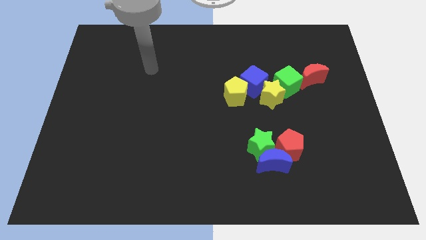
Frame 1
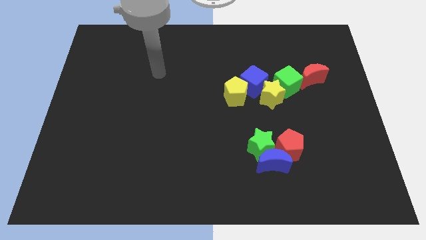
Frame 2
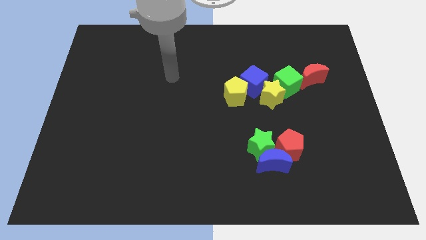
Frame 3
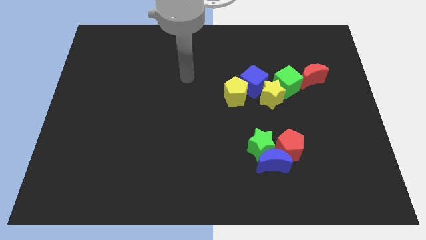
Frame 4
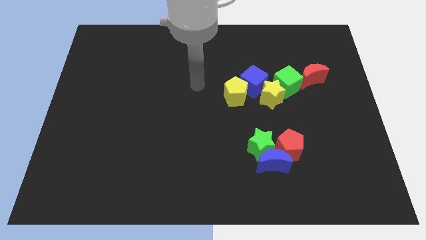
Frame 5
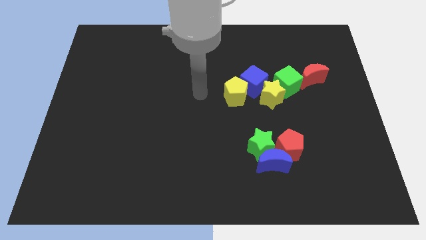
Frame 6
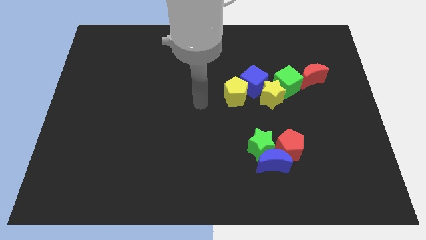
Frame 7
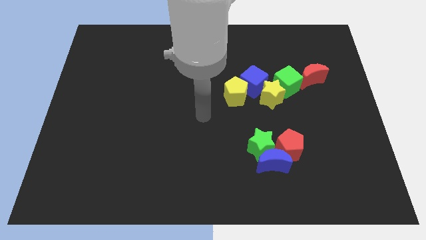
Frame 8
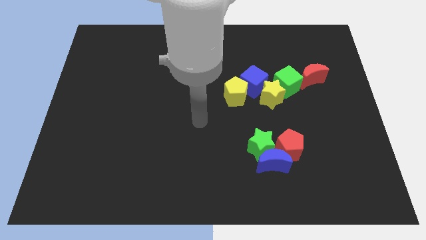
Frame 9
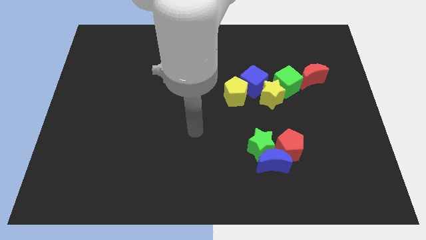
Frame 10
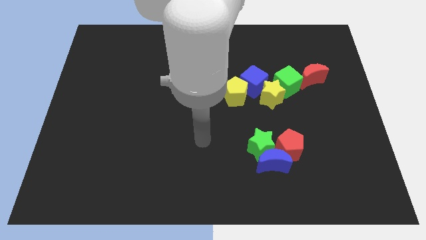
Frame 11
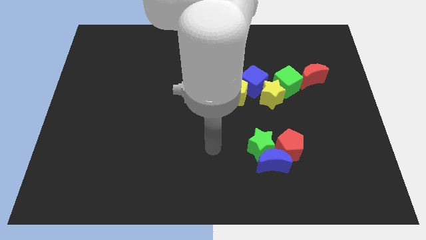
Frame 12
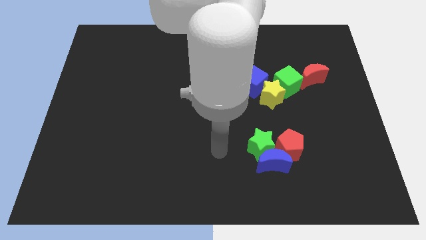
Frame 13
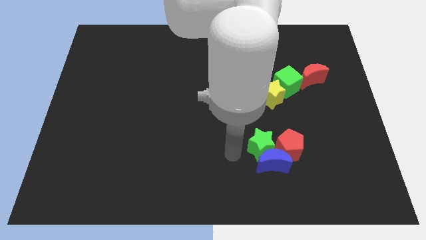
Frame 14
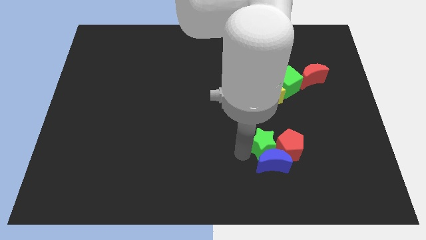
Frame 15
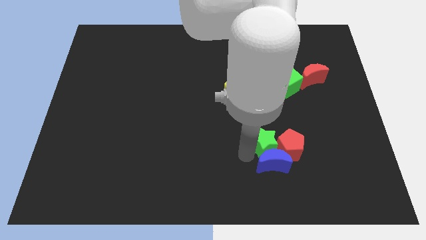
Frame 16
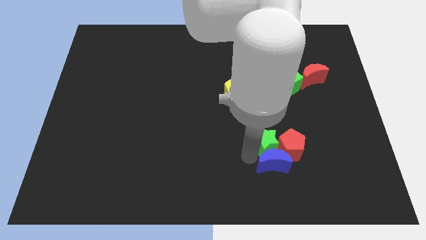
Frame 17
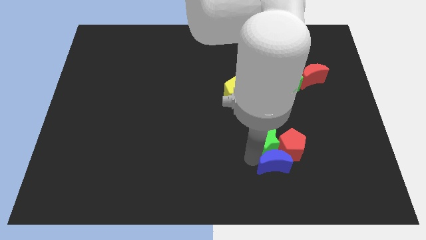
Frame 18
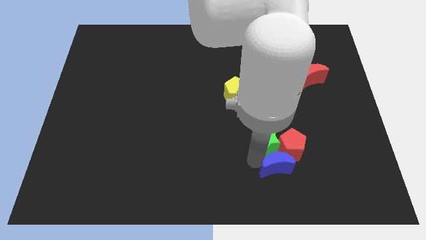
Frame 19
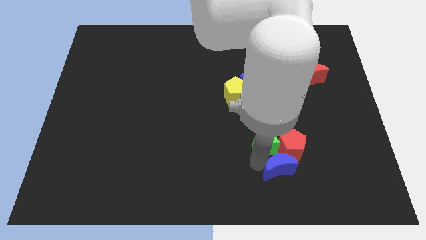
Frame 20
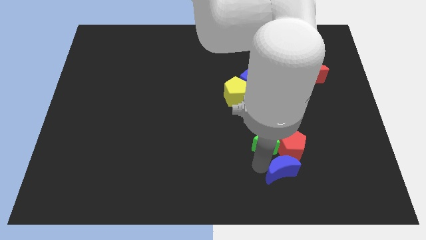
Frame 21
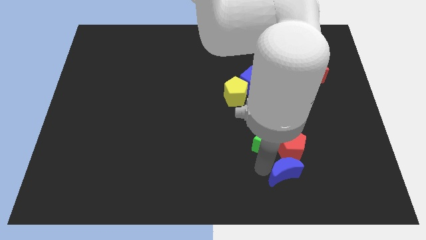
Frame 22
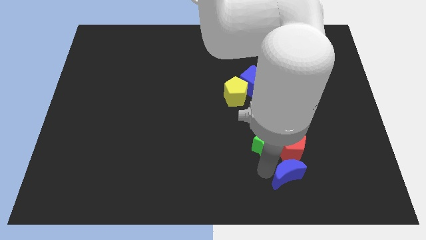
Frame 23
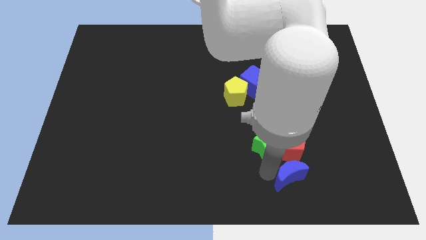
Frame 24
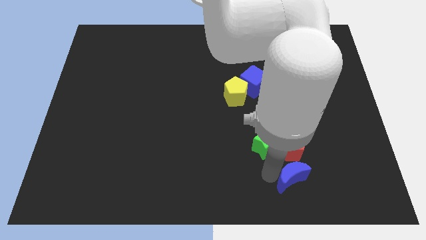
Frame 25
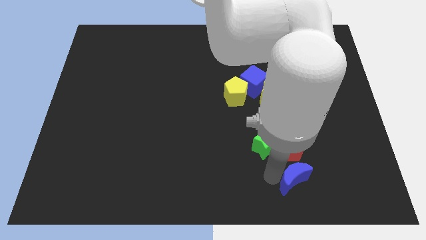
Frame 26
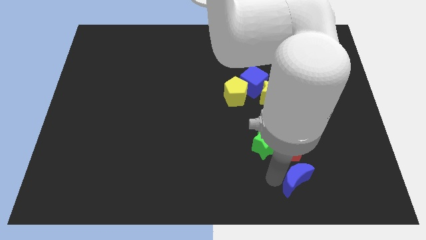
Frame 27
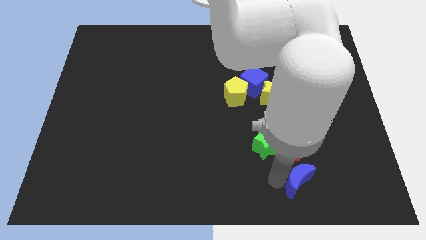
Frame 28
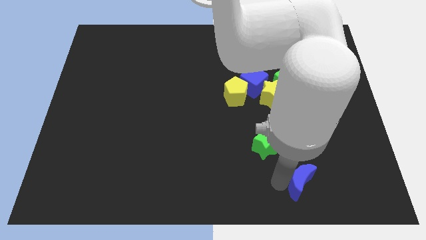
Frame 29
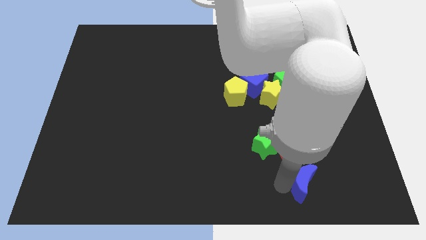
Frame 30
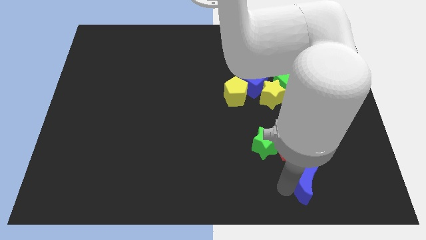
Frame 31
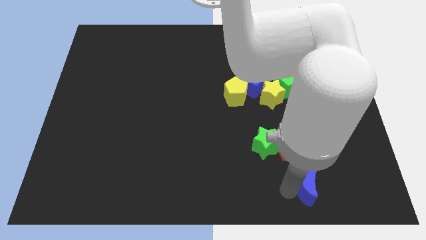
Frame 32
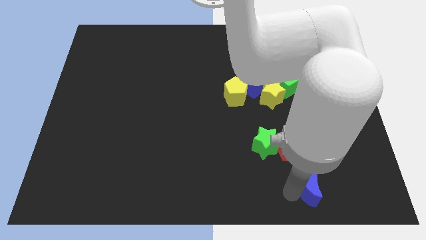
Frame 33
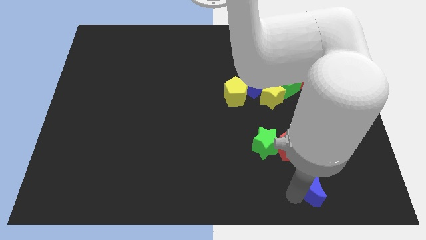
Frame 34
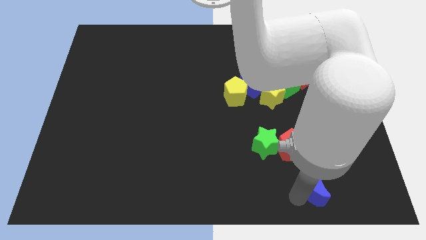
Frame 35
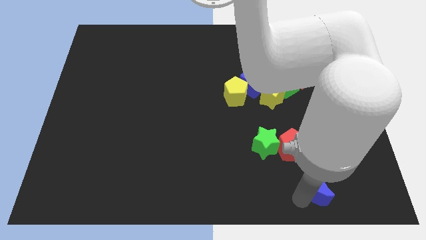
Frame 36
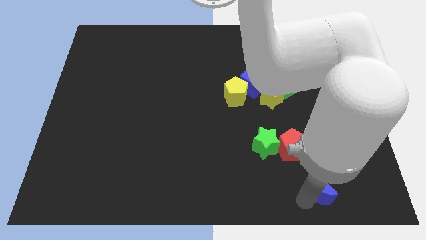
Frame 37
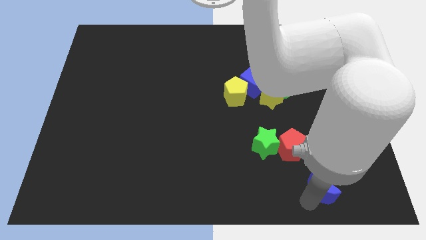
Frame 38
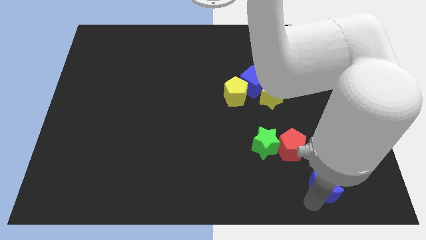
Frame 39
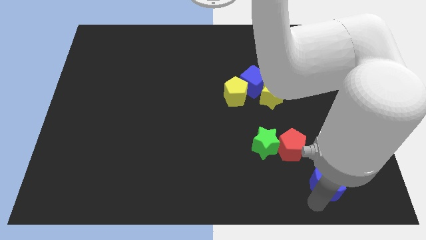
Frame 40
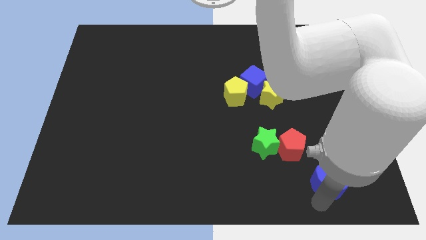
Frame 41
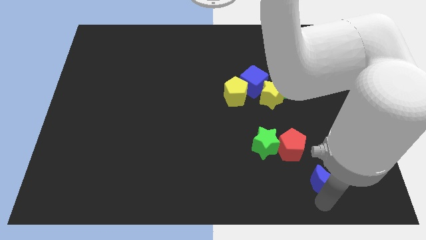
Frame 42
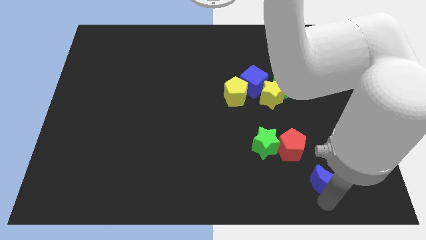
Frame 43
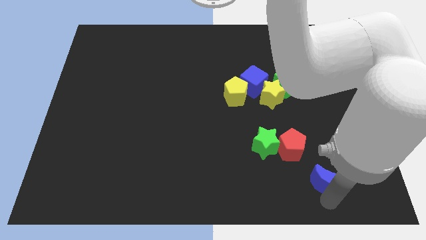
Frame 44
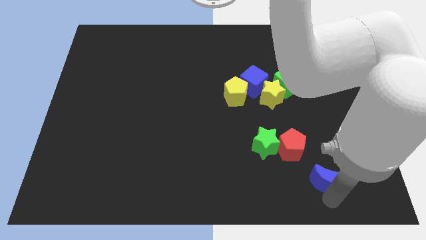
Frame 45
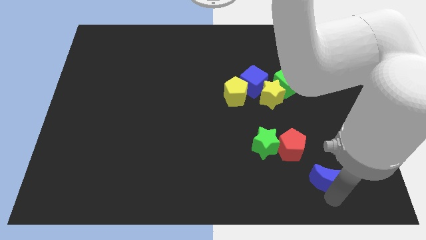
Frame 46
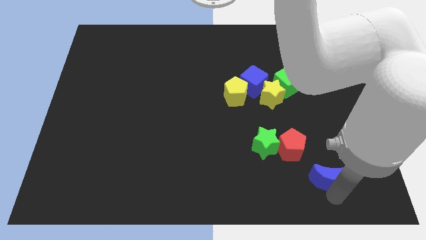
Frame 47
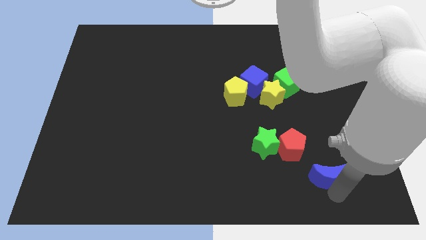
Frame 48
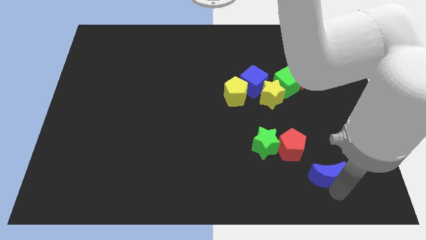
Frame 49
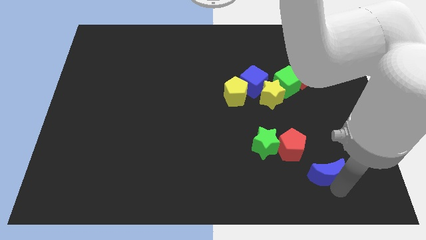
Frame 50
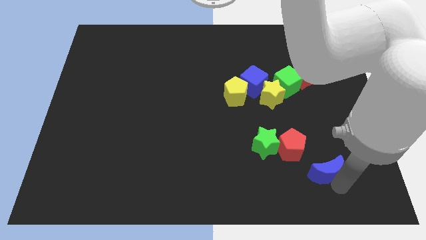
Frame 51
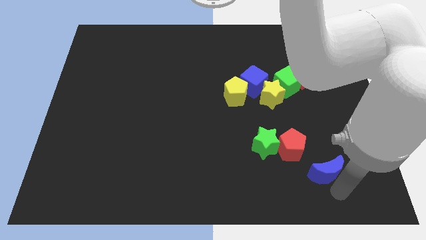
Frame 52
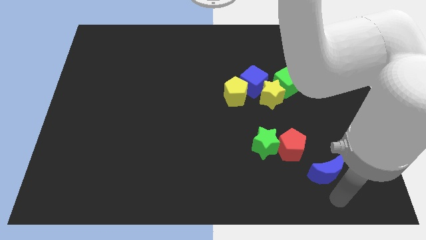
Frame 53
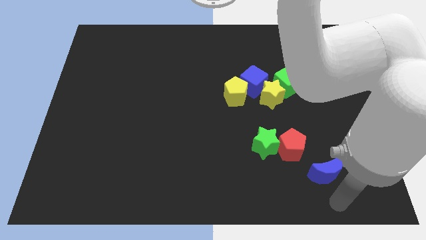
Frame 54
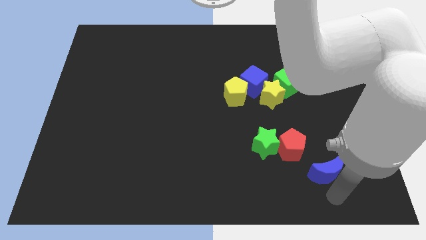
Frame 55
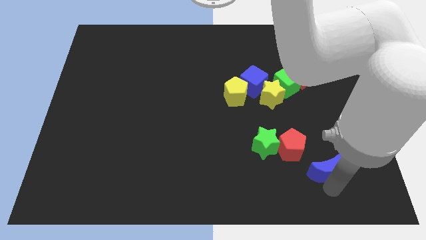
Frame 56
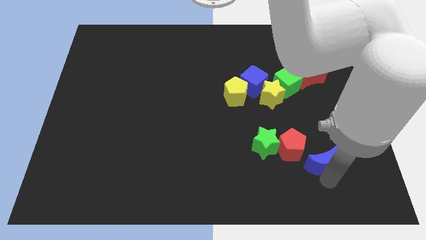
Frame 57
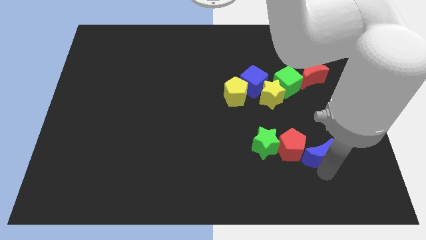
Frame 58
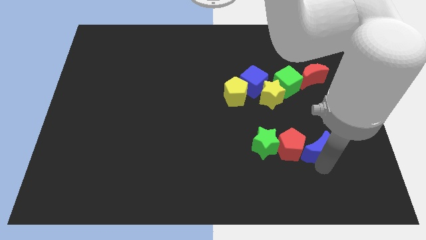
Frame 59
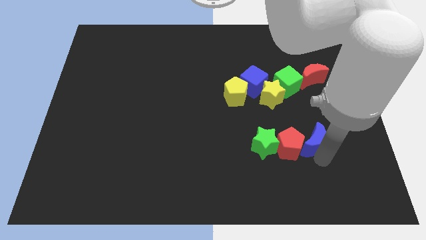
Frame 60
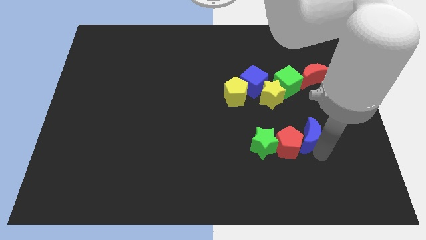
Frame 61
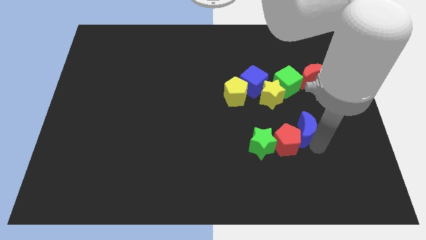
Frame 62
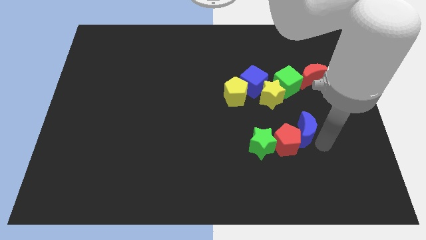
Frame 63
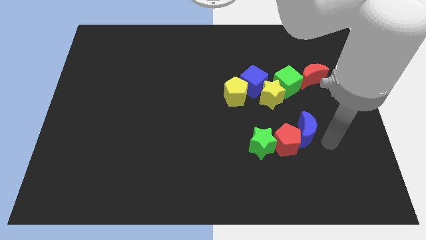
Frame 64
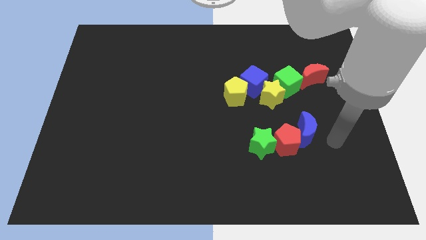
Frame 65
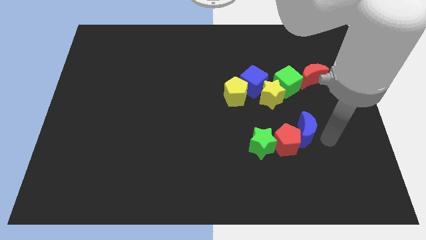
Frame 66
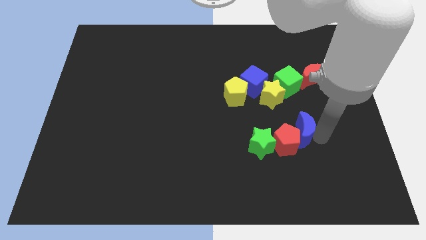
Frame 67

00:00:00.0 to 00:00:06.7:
put the blue moon to the top right of the green star

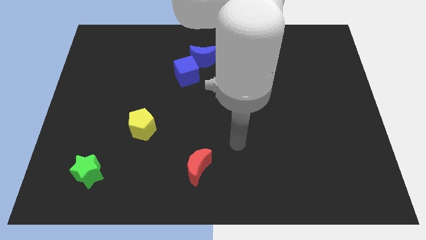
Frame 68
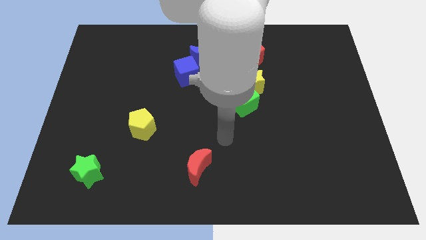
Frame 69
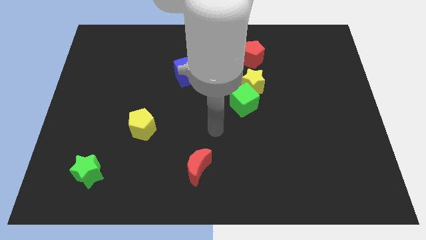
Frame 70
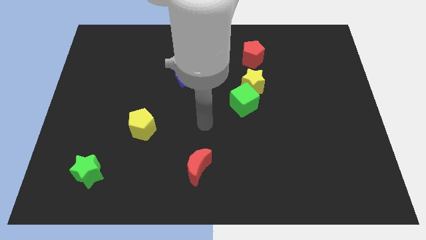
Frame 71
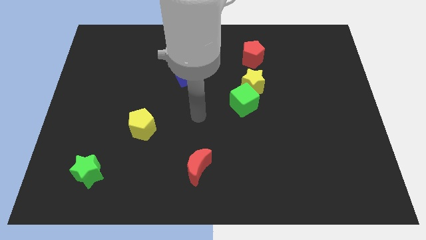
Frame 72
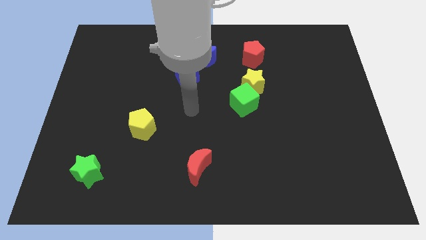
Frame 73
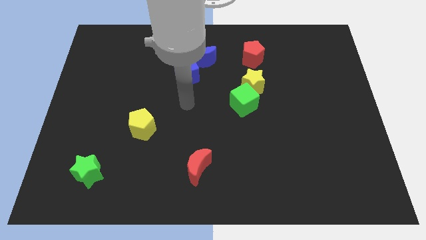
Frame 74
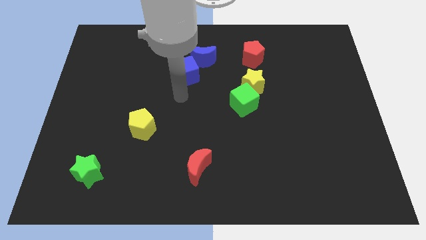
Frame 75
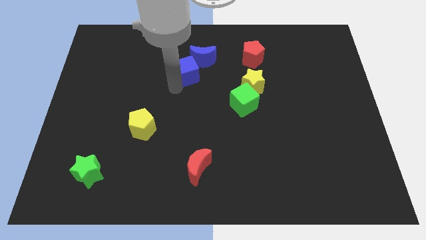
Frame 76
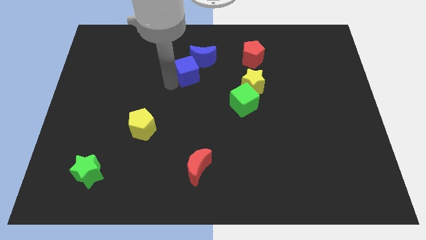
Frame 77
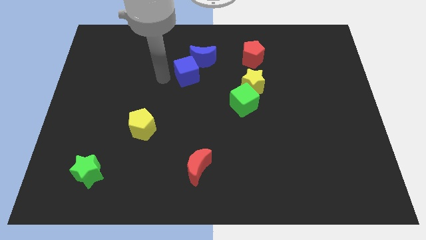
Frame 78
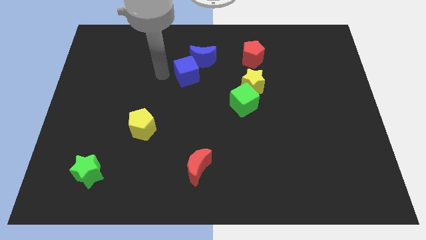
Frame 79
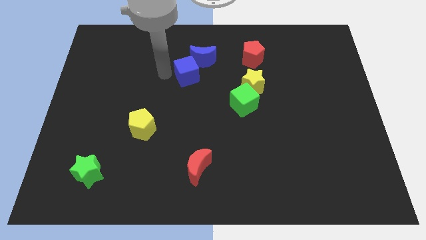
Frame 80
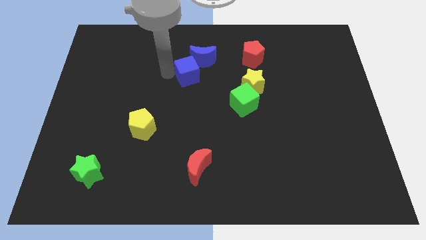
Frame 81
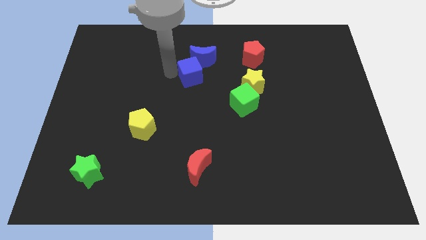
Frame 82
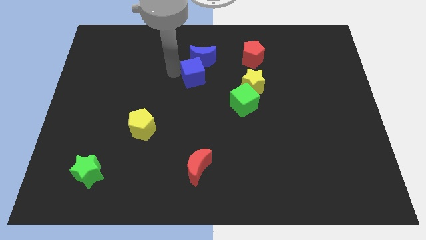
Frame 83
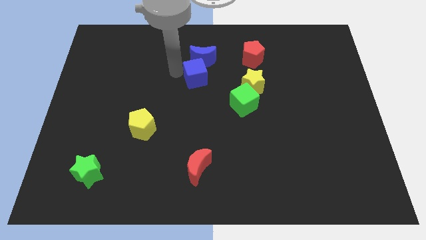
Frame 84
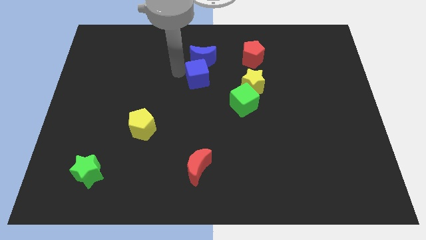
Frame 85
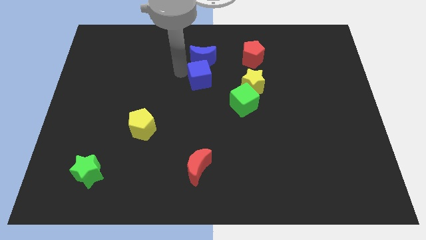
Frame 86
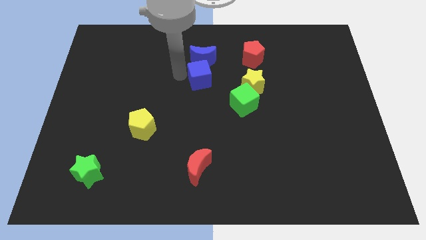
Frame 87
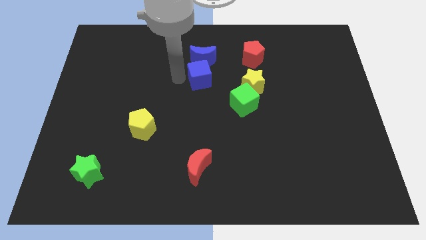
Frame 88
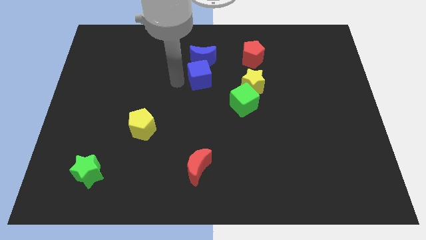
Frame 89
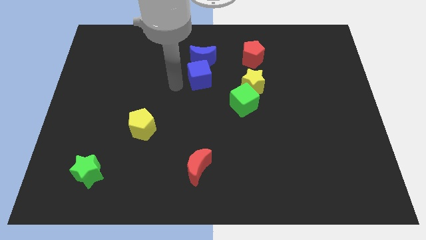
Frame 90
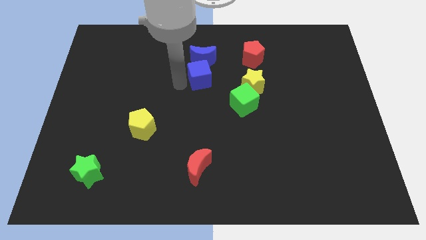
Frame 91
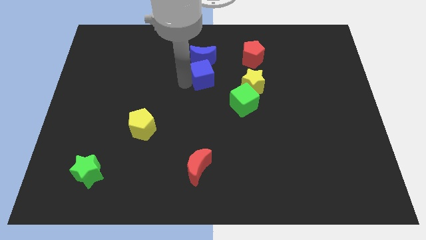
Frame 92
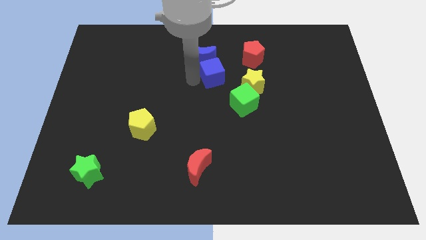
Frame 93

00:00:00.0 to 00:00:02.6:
put the blue cube to the bottom left side of the red pentagon
